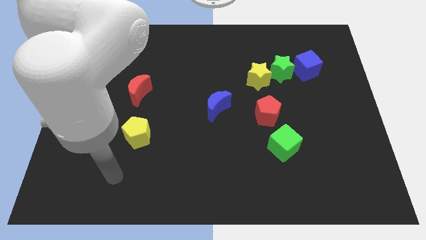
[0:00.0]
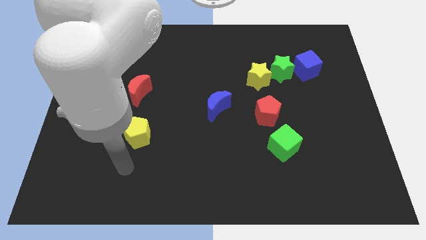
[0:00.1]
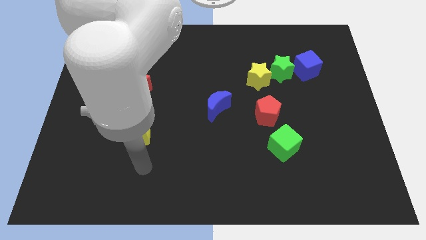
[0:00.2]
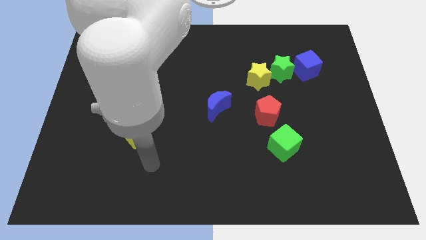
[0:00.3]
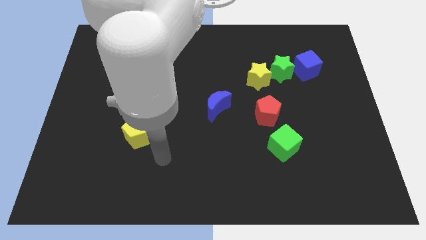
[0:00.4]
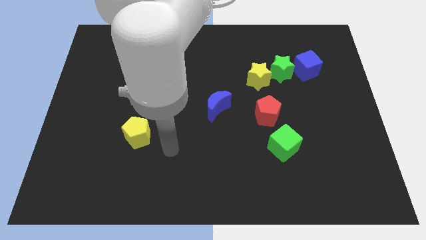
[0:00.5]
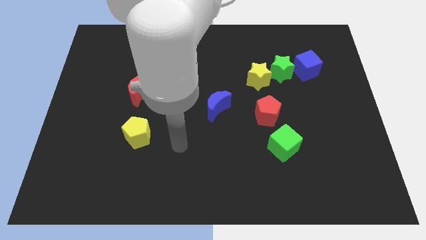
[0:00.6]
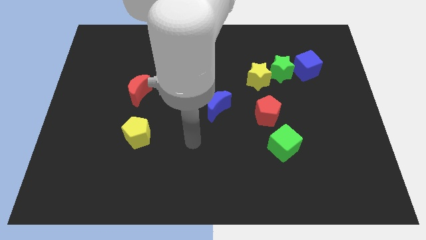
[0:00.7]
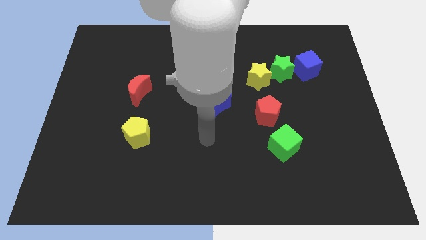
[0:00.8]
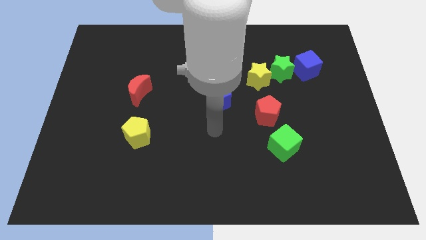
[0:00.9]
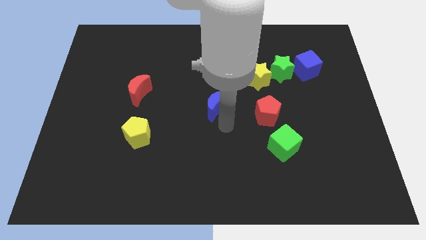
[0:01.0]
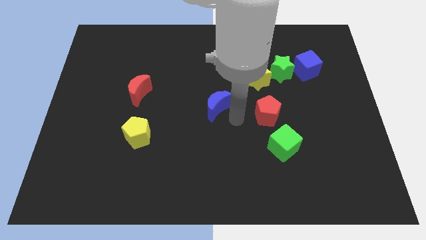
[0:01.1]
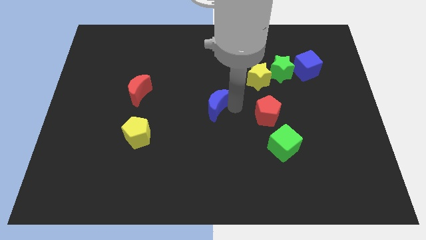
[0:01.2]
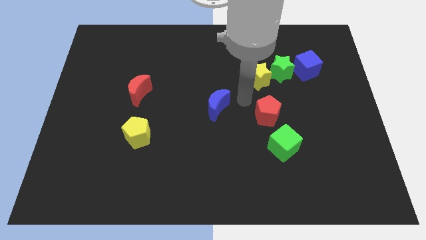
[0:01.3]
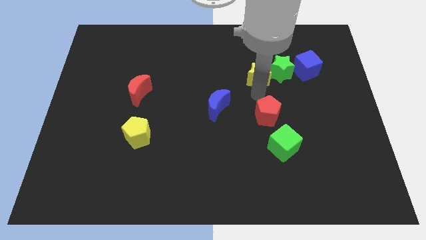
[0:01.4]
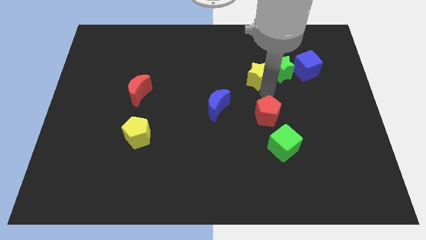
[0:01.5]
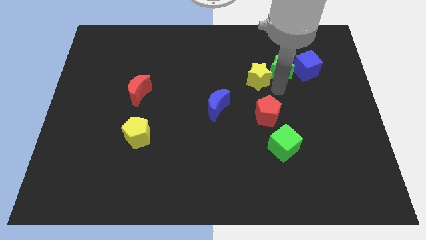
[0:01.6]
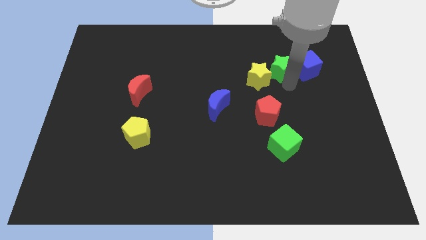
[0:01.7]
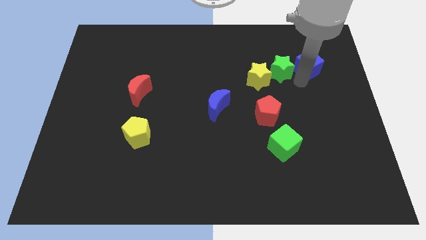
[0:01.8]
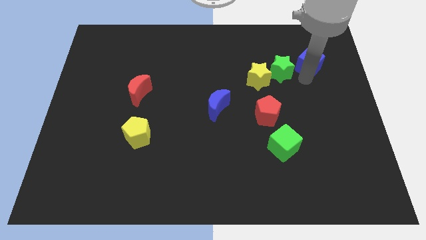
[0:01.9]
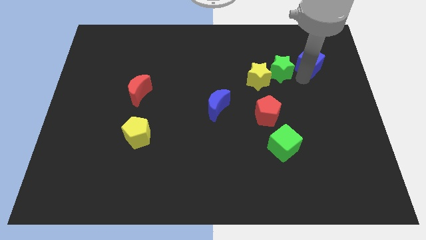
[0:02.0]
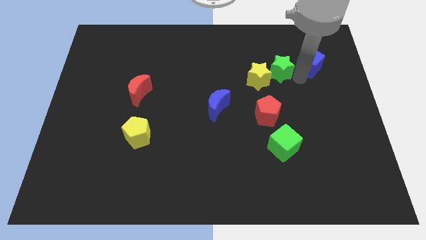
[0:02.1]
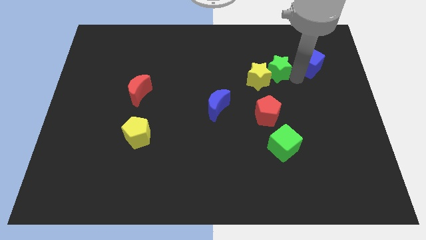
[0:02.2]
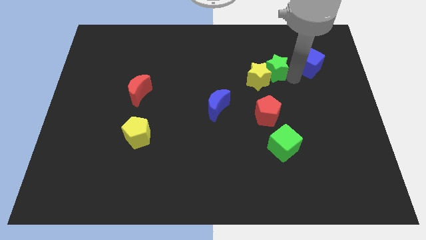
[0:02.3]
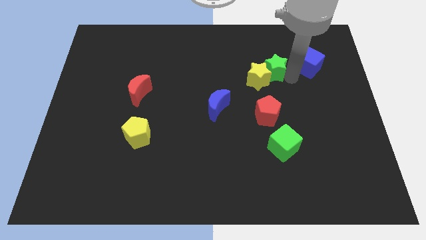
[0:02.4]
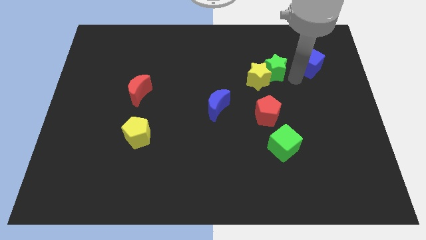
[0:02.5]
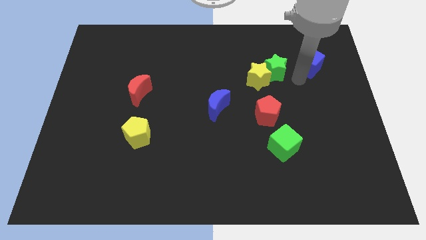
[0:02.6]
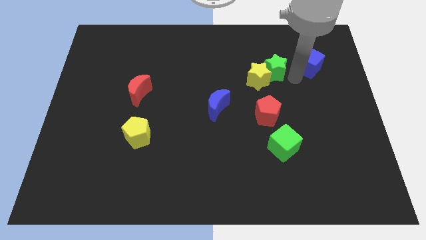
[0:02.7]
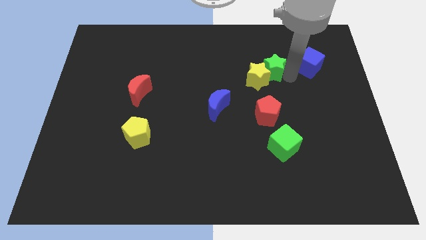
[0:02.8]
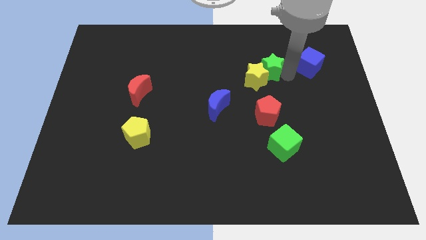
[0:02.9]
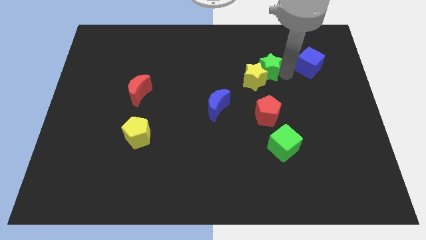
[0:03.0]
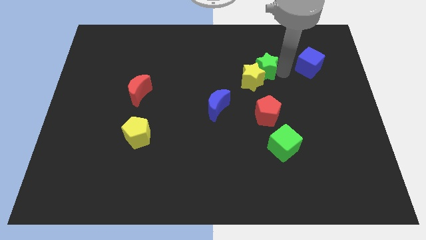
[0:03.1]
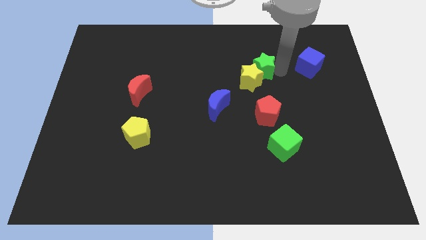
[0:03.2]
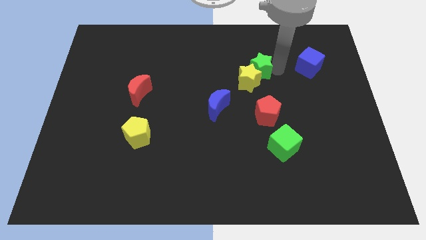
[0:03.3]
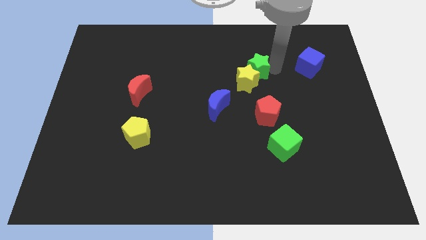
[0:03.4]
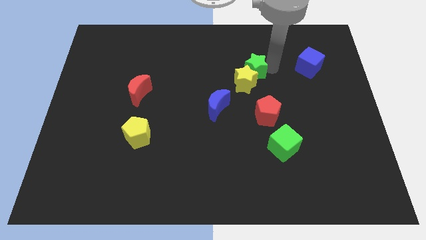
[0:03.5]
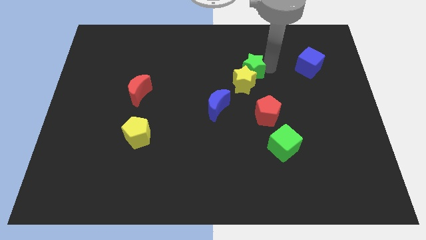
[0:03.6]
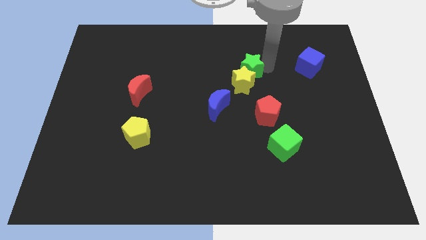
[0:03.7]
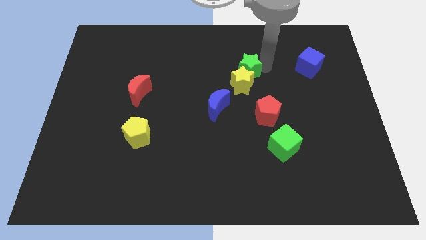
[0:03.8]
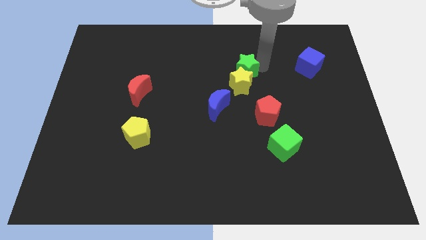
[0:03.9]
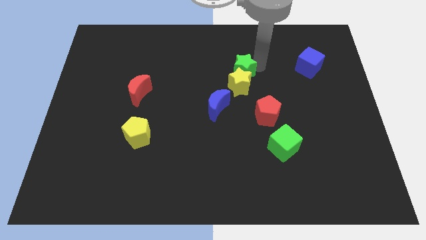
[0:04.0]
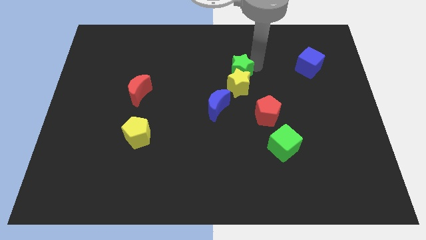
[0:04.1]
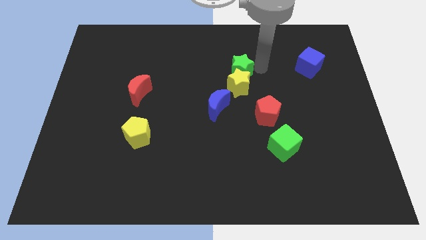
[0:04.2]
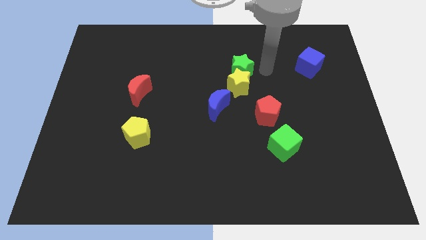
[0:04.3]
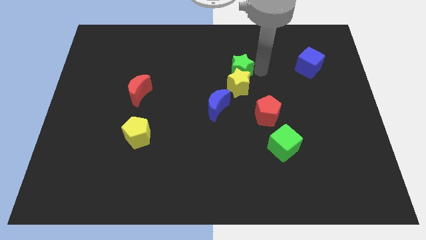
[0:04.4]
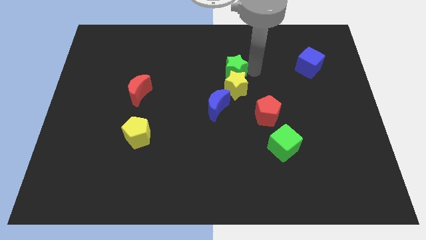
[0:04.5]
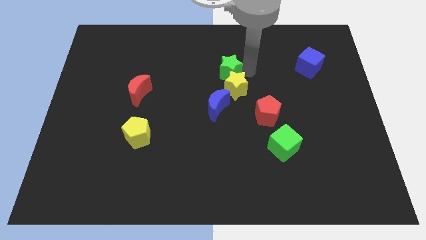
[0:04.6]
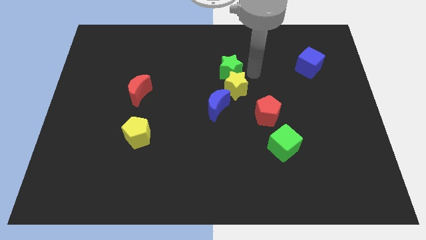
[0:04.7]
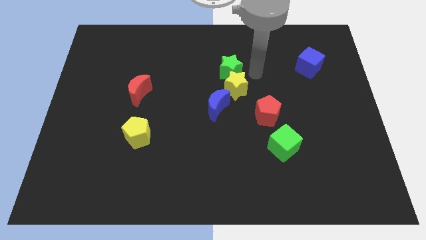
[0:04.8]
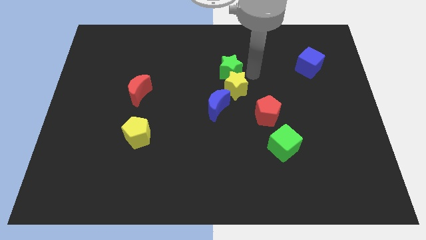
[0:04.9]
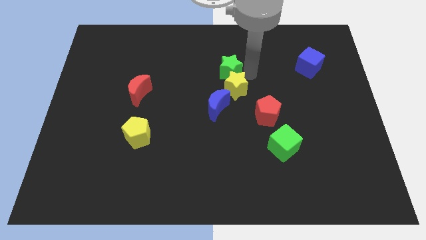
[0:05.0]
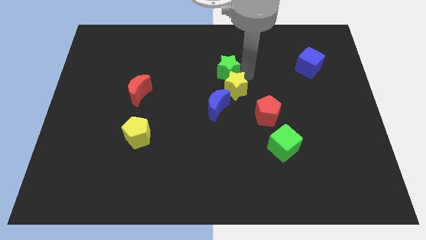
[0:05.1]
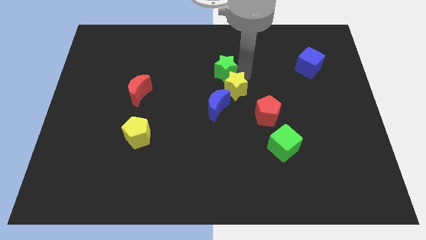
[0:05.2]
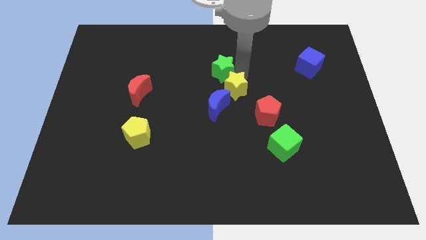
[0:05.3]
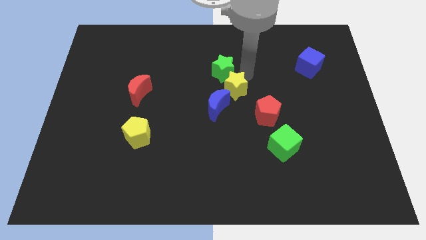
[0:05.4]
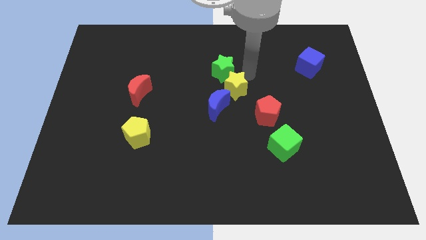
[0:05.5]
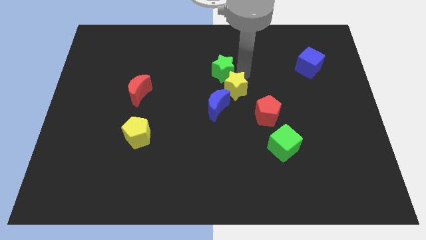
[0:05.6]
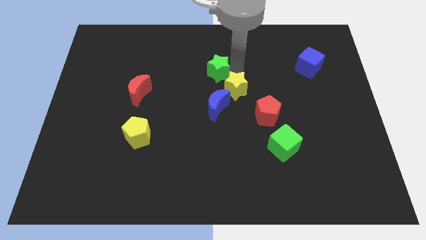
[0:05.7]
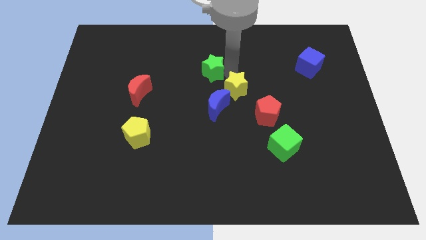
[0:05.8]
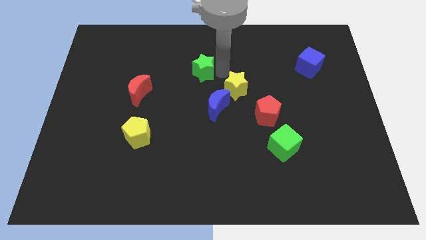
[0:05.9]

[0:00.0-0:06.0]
slide the green star to the left

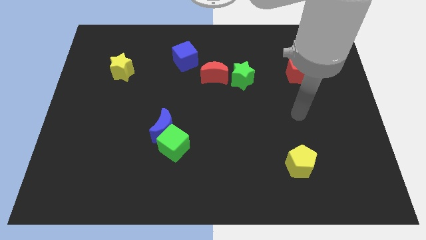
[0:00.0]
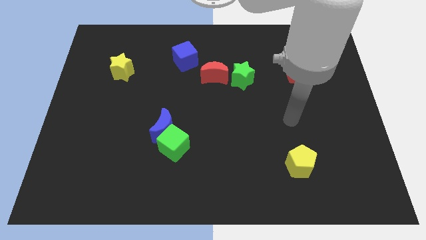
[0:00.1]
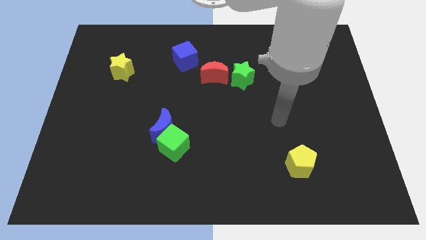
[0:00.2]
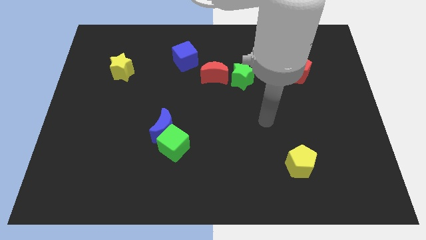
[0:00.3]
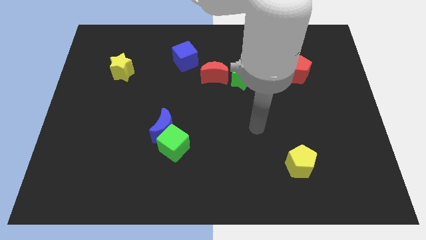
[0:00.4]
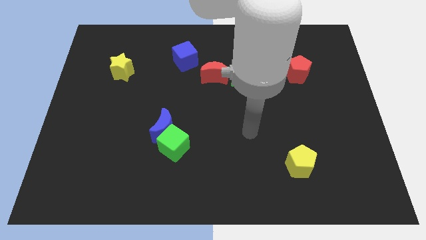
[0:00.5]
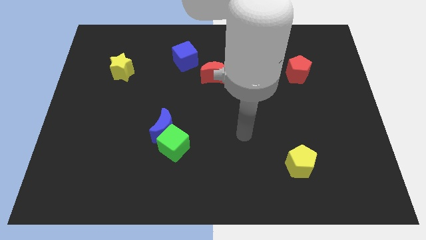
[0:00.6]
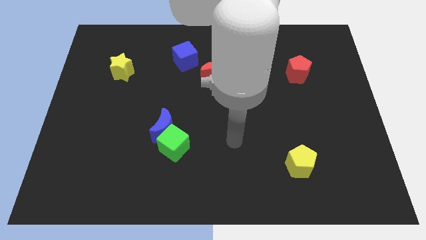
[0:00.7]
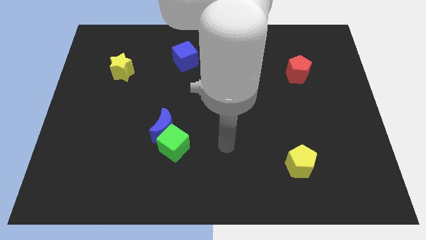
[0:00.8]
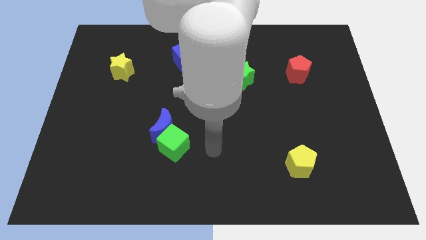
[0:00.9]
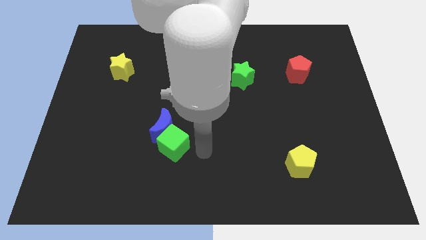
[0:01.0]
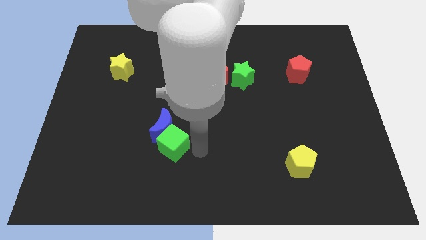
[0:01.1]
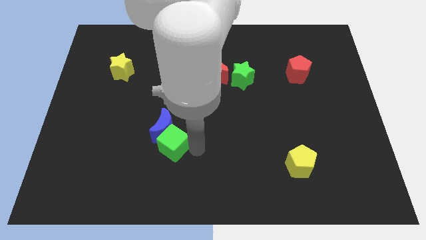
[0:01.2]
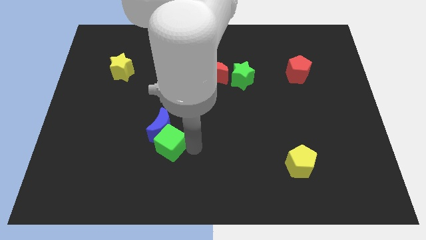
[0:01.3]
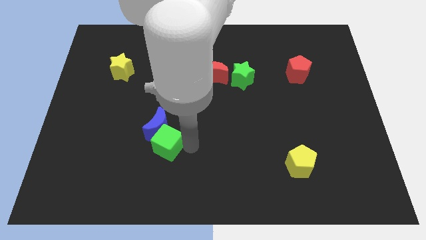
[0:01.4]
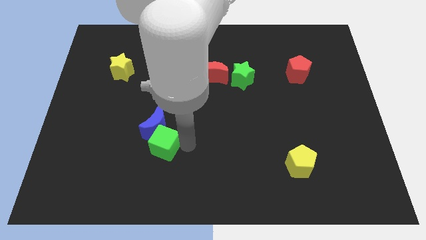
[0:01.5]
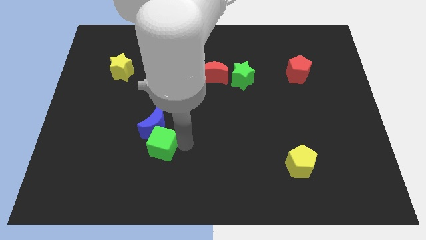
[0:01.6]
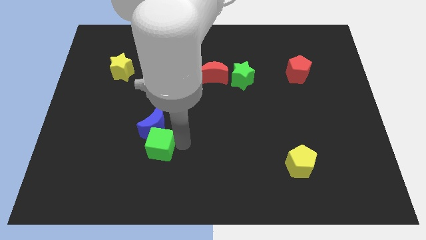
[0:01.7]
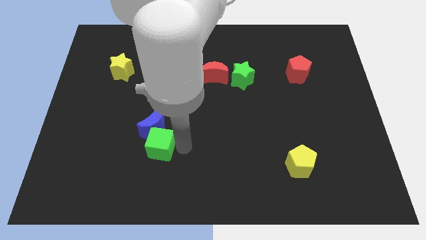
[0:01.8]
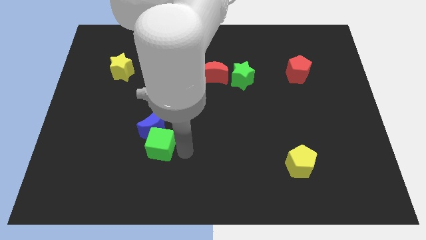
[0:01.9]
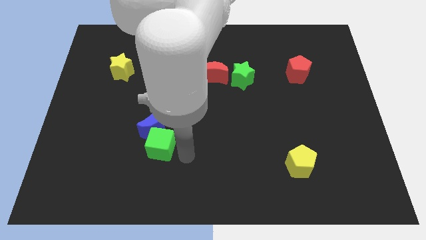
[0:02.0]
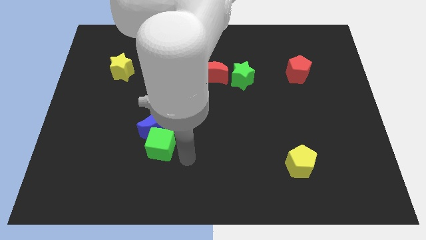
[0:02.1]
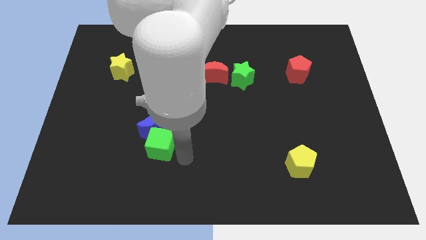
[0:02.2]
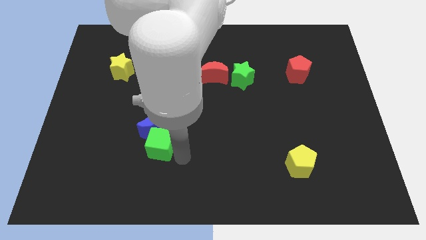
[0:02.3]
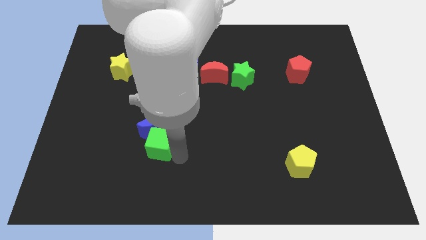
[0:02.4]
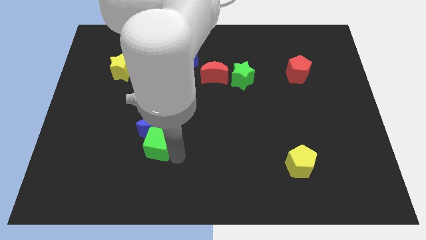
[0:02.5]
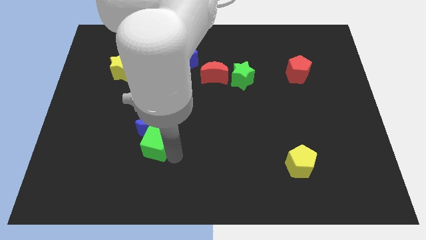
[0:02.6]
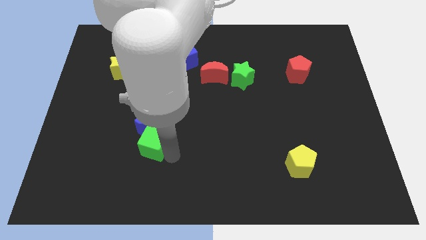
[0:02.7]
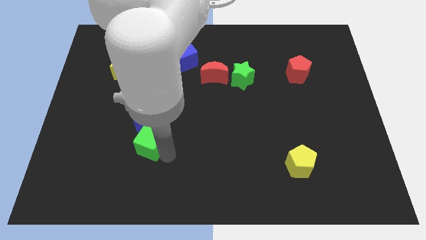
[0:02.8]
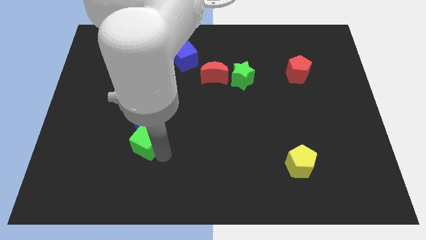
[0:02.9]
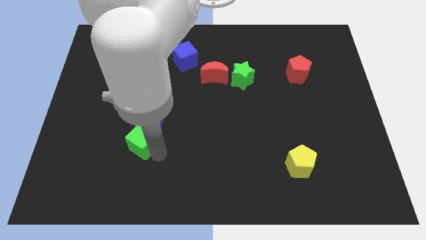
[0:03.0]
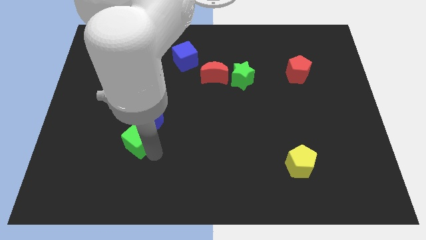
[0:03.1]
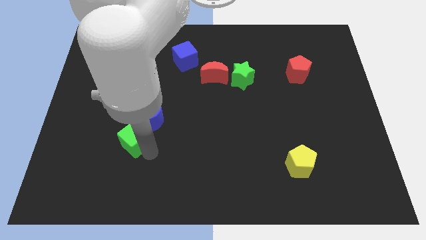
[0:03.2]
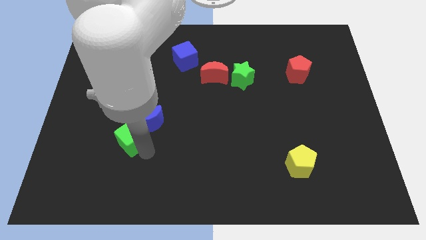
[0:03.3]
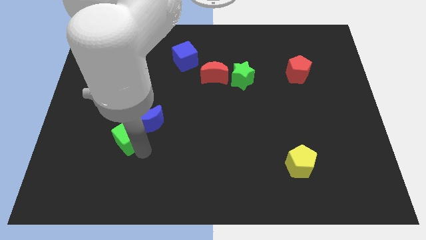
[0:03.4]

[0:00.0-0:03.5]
slide the green cube up and then left a little
